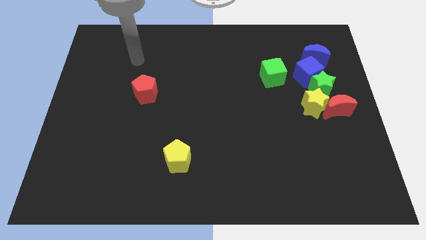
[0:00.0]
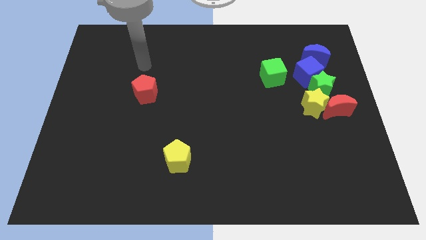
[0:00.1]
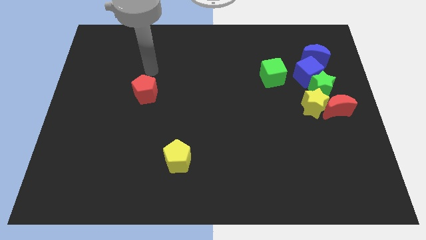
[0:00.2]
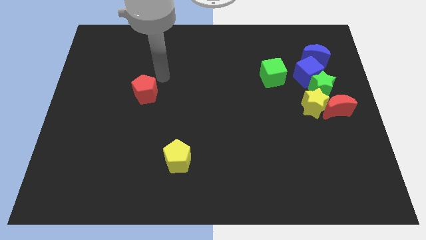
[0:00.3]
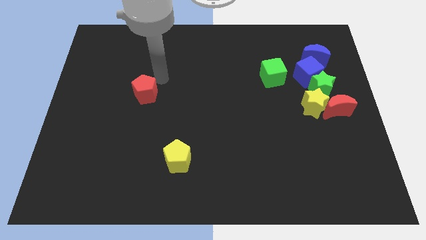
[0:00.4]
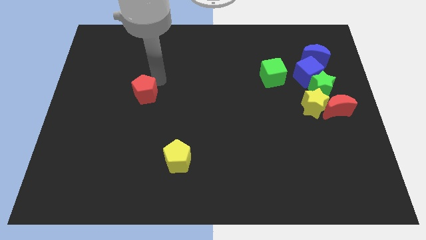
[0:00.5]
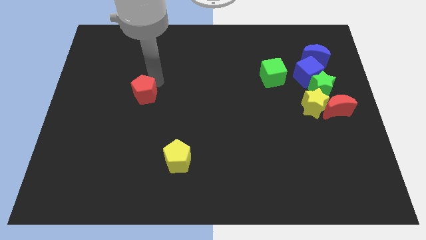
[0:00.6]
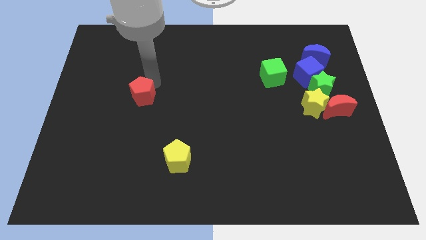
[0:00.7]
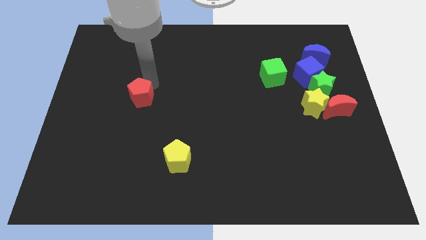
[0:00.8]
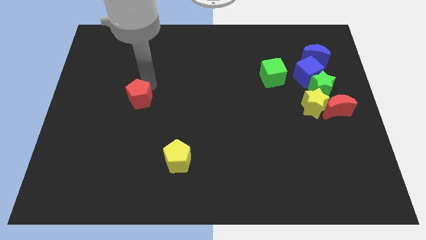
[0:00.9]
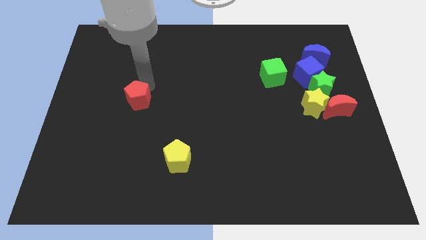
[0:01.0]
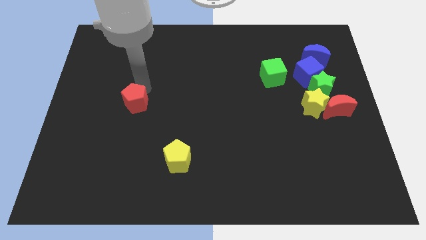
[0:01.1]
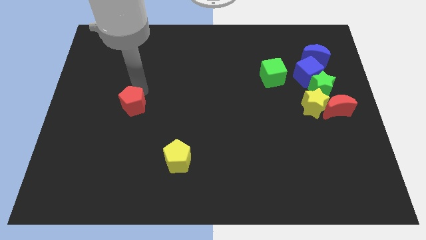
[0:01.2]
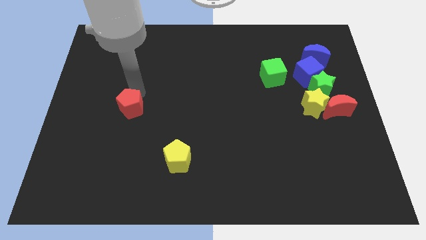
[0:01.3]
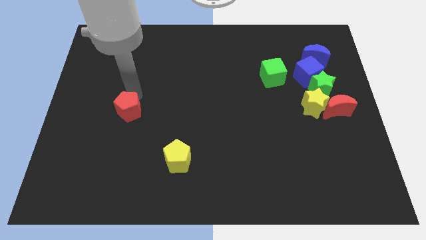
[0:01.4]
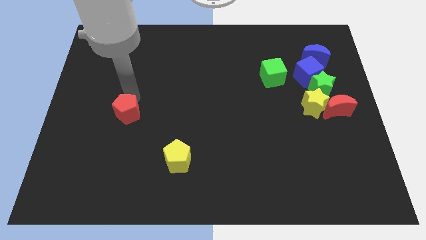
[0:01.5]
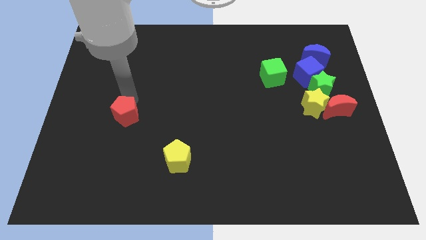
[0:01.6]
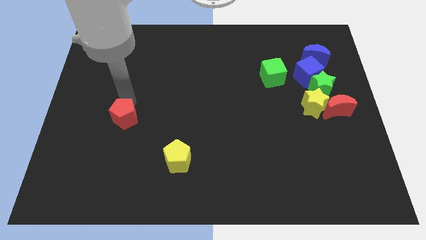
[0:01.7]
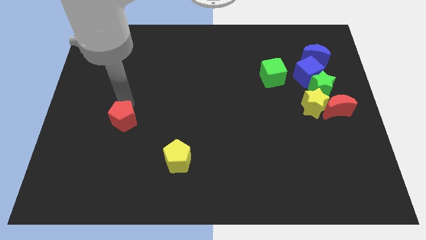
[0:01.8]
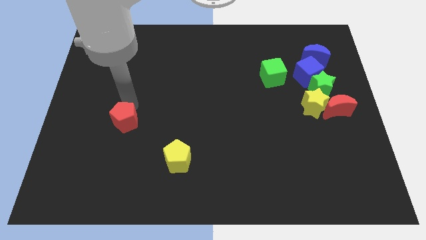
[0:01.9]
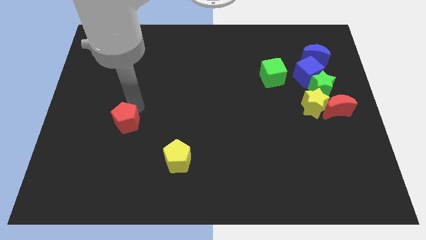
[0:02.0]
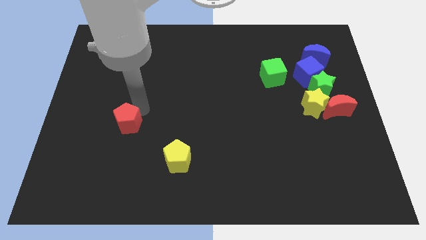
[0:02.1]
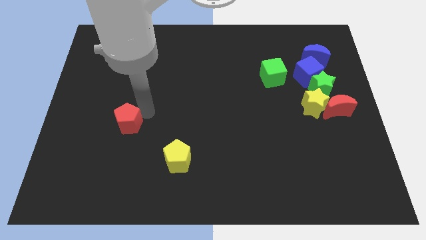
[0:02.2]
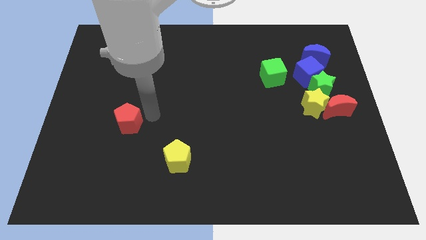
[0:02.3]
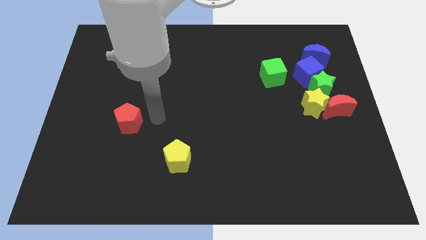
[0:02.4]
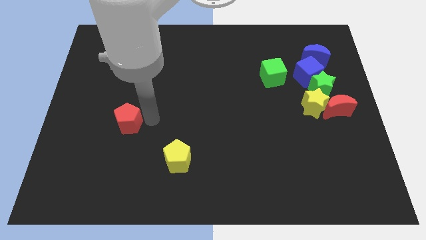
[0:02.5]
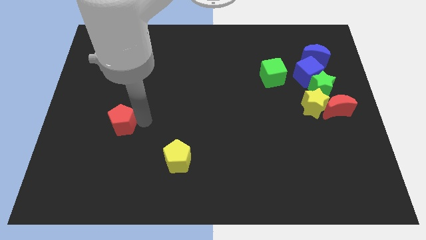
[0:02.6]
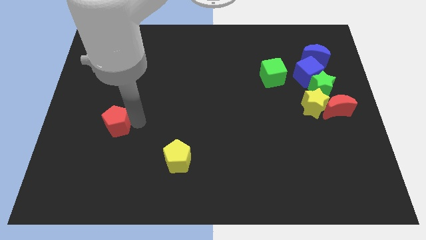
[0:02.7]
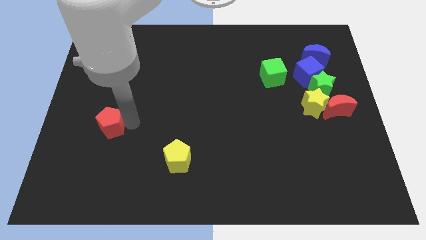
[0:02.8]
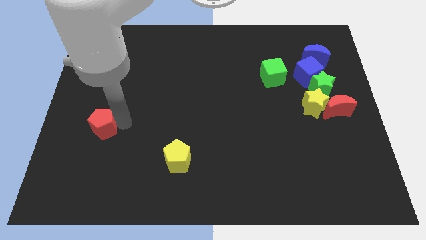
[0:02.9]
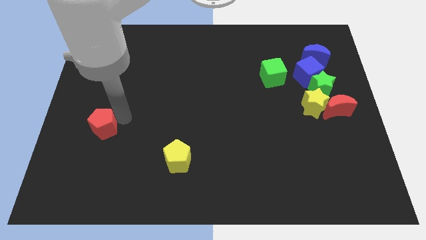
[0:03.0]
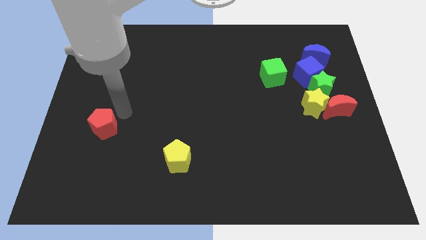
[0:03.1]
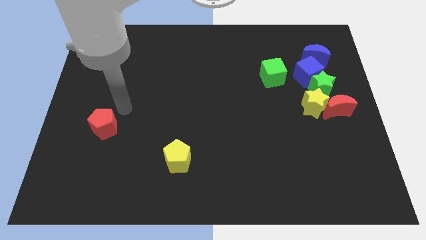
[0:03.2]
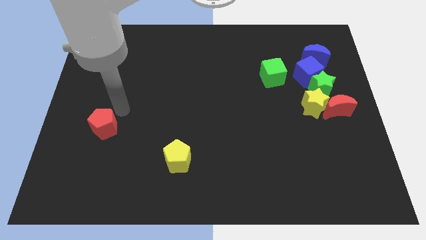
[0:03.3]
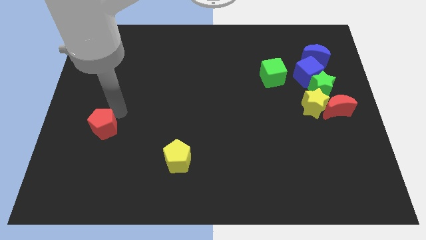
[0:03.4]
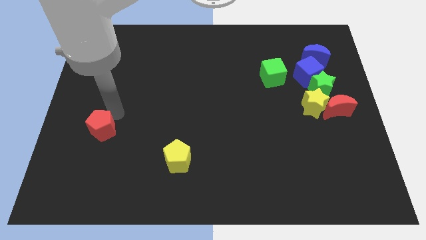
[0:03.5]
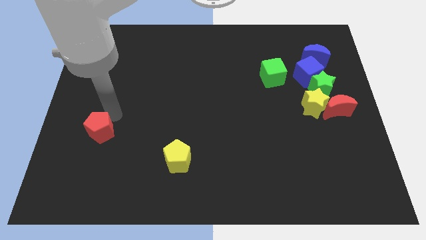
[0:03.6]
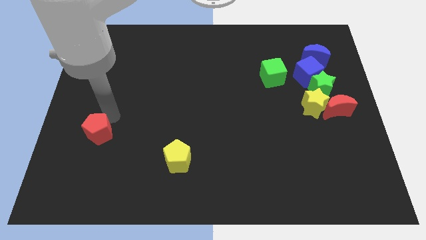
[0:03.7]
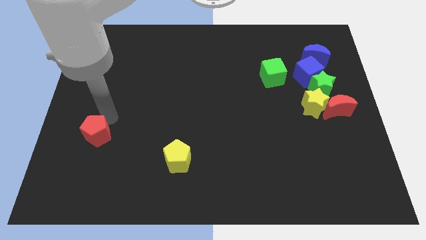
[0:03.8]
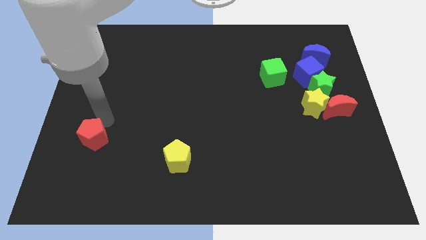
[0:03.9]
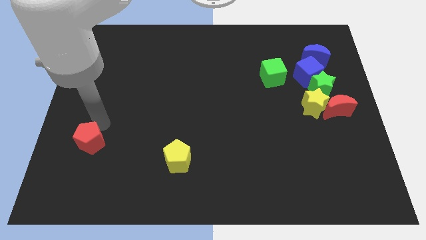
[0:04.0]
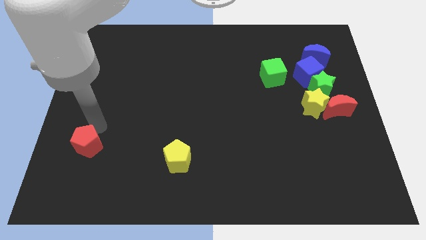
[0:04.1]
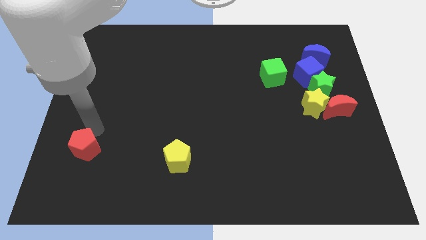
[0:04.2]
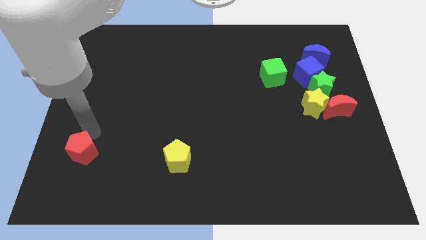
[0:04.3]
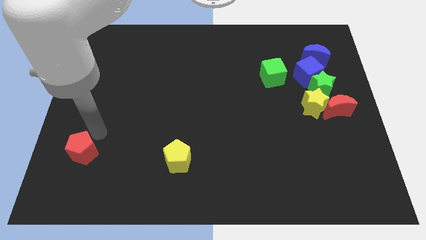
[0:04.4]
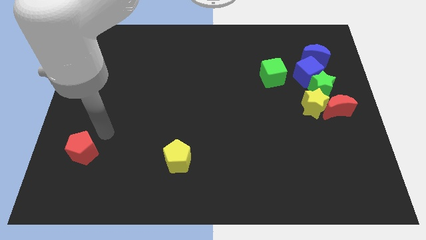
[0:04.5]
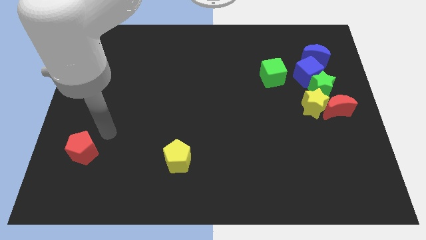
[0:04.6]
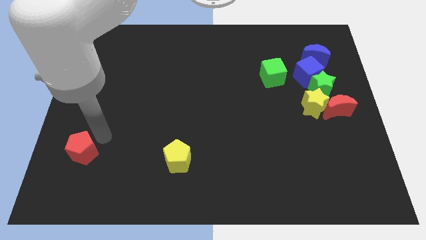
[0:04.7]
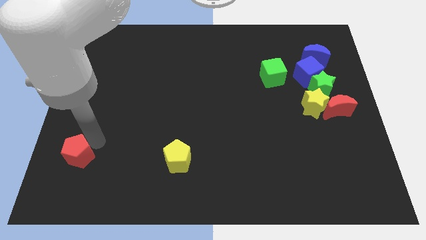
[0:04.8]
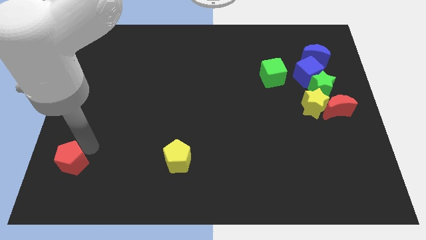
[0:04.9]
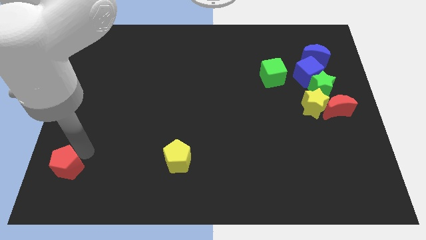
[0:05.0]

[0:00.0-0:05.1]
push the red pentagon to the bottom left corner

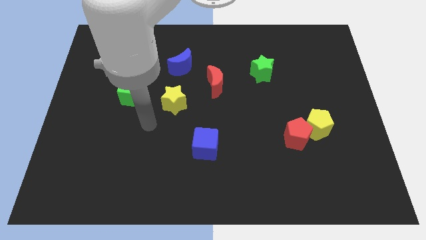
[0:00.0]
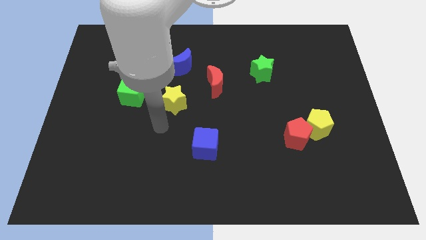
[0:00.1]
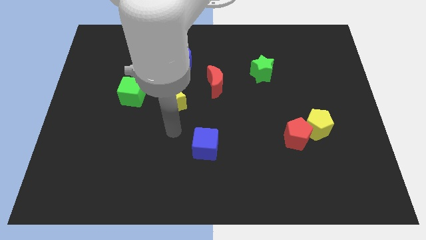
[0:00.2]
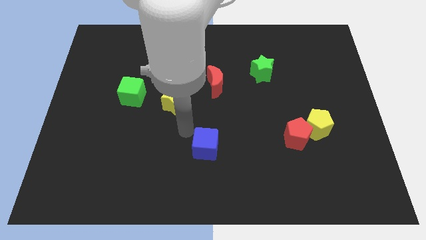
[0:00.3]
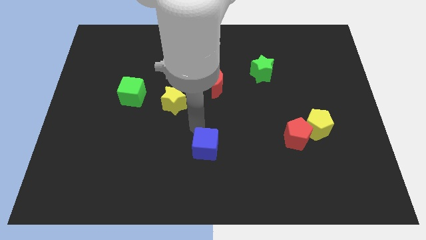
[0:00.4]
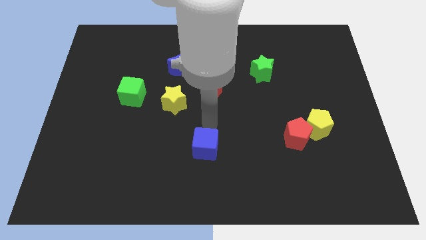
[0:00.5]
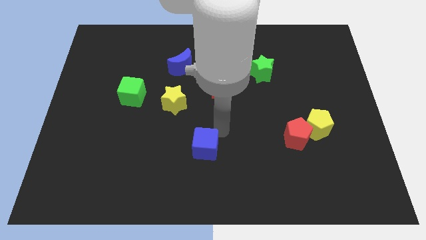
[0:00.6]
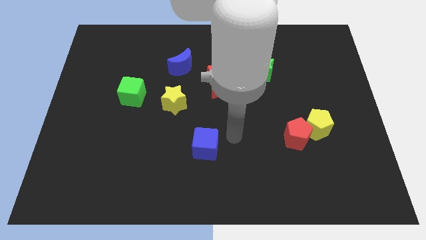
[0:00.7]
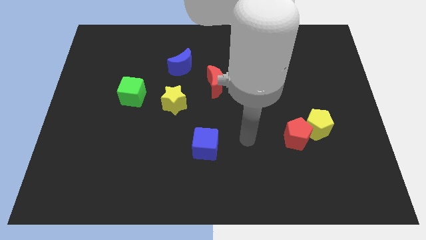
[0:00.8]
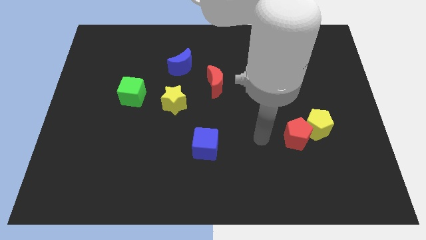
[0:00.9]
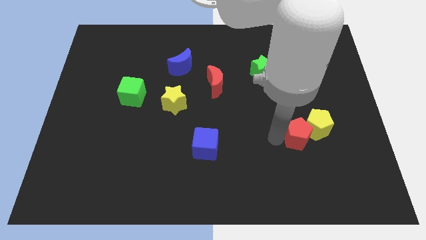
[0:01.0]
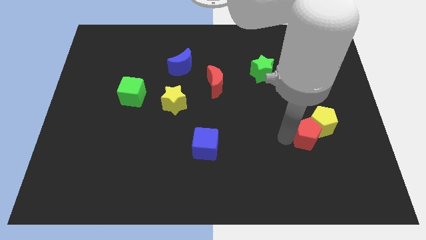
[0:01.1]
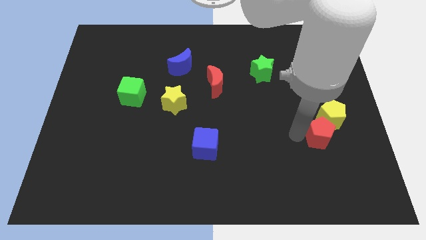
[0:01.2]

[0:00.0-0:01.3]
put the yellow pentagon to the center right
